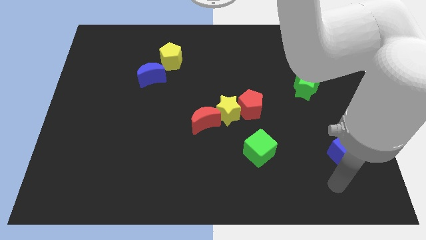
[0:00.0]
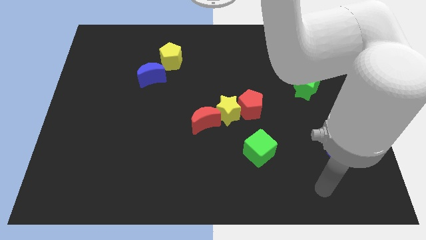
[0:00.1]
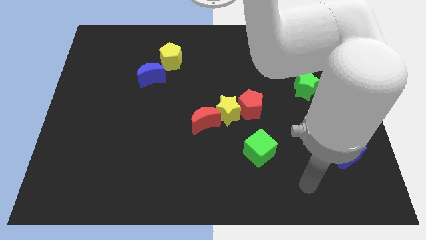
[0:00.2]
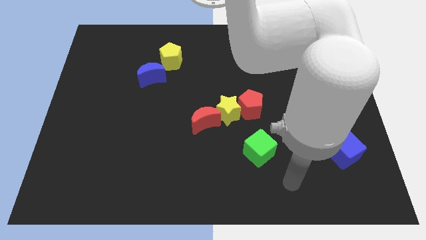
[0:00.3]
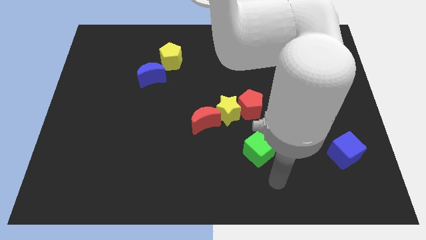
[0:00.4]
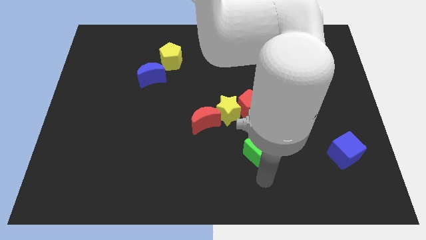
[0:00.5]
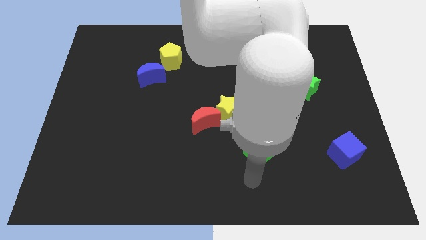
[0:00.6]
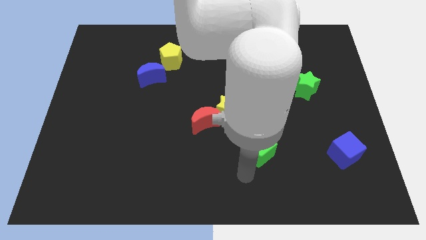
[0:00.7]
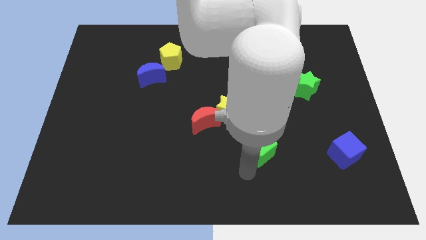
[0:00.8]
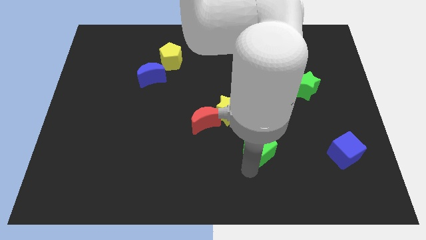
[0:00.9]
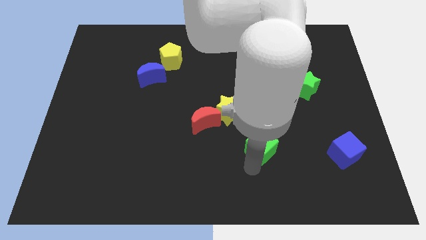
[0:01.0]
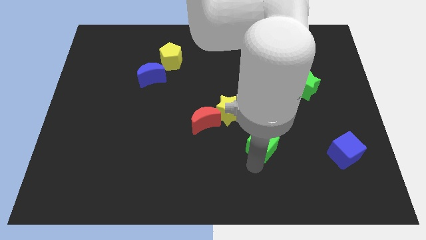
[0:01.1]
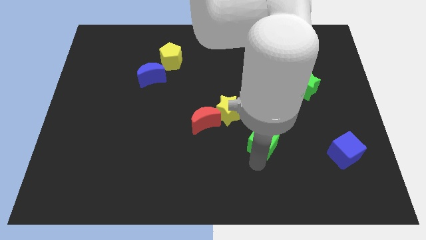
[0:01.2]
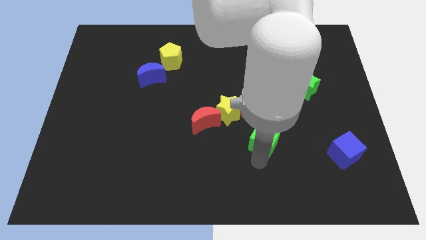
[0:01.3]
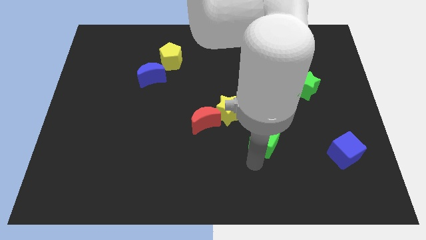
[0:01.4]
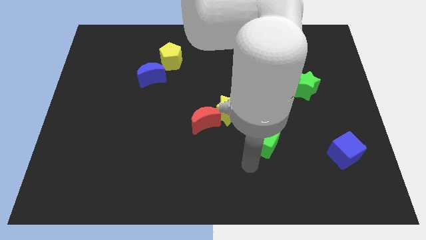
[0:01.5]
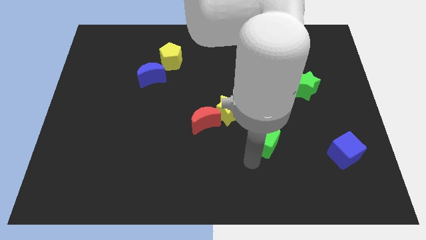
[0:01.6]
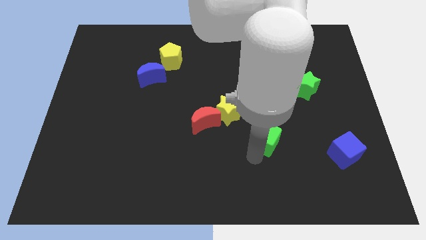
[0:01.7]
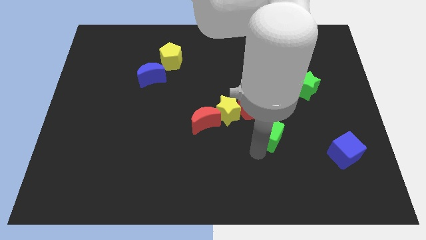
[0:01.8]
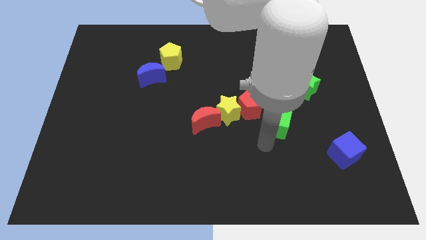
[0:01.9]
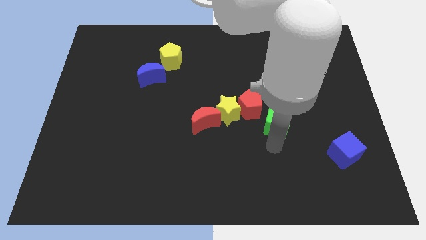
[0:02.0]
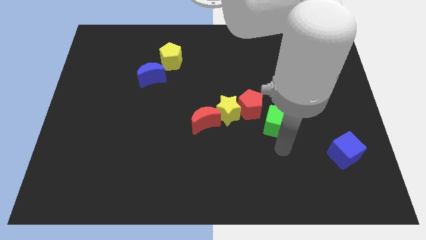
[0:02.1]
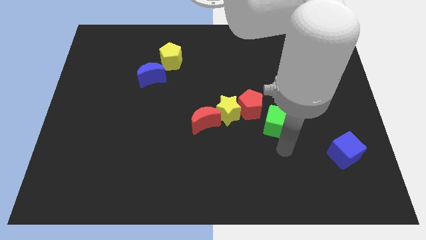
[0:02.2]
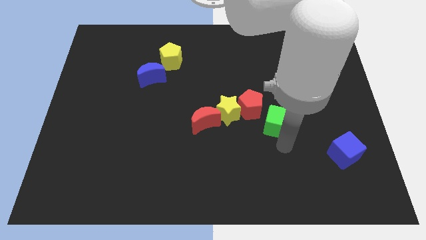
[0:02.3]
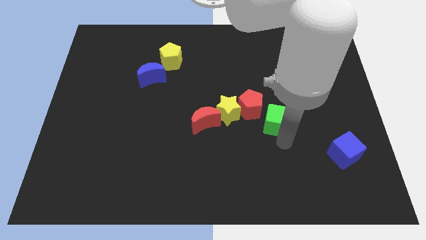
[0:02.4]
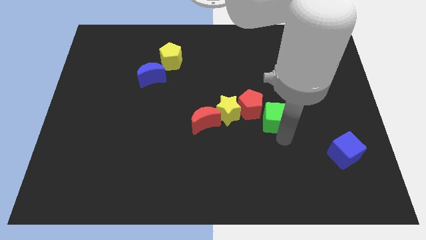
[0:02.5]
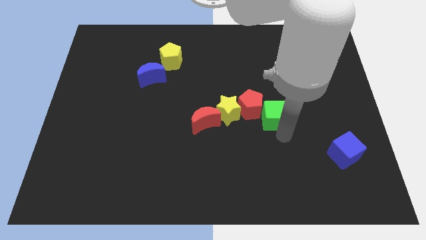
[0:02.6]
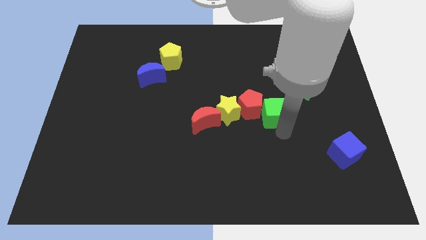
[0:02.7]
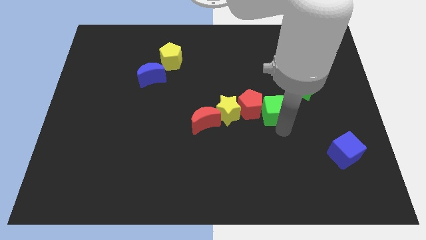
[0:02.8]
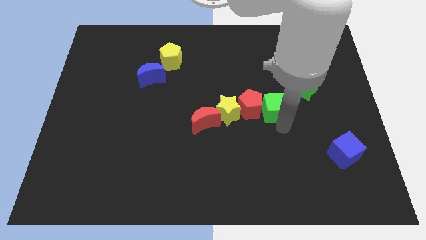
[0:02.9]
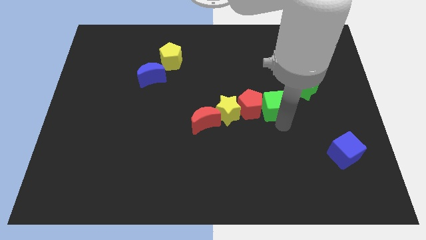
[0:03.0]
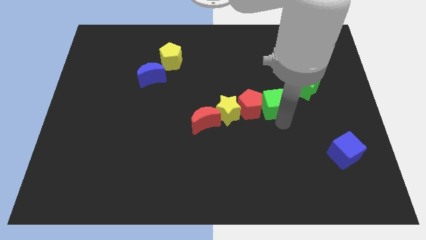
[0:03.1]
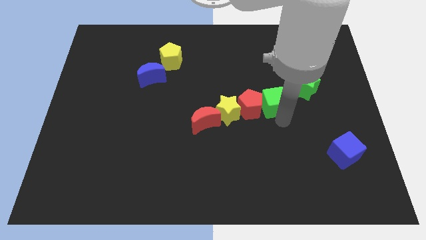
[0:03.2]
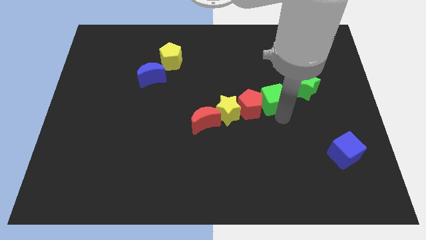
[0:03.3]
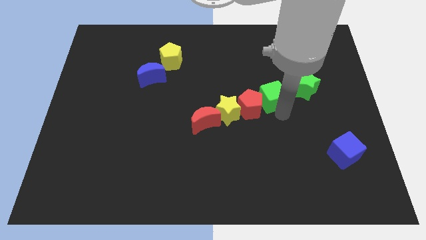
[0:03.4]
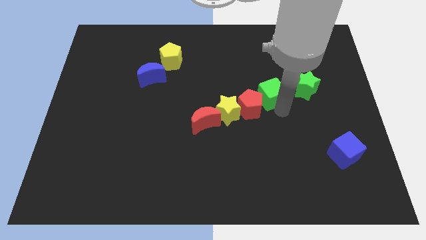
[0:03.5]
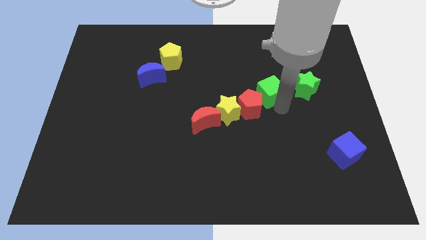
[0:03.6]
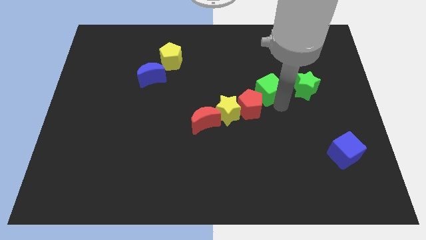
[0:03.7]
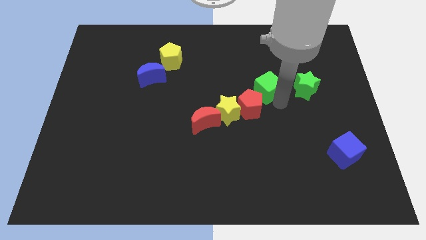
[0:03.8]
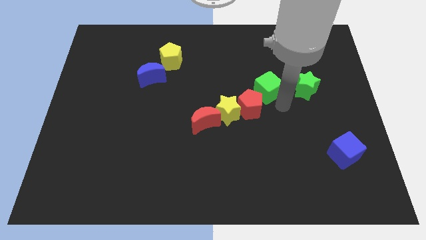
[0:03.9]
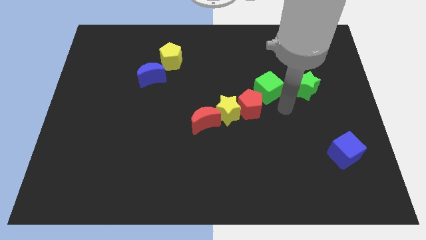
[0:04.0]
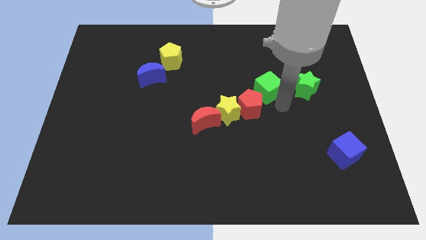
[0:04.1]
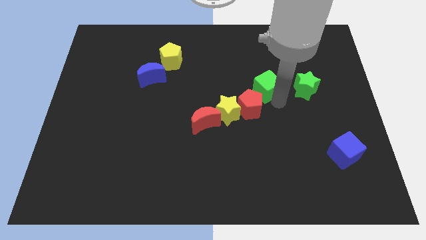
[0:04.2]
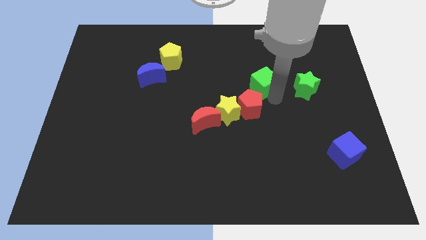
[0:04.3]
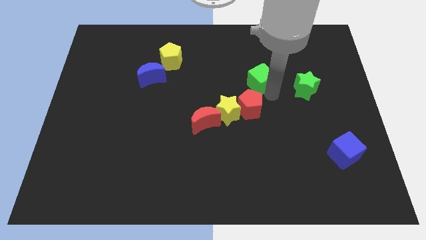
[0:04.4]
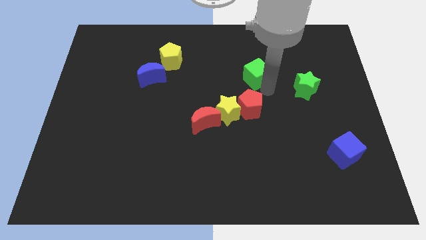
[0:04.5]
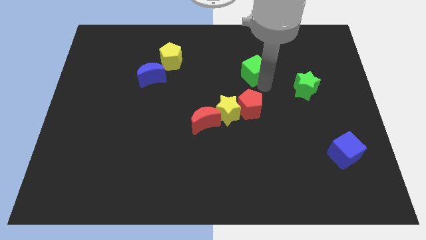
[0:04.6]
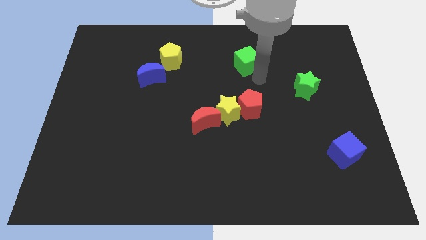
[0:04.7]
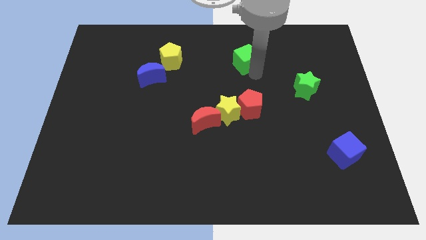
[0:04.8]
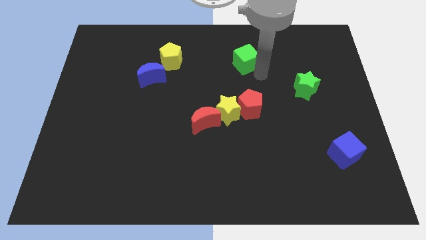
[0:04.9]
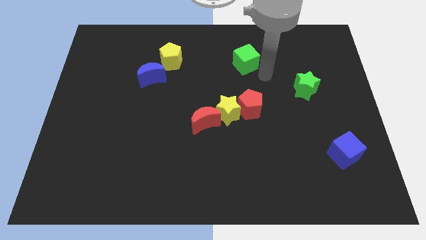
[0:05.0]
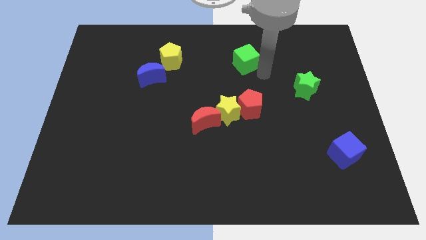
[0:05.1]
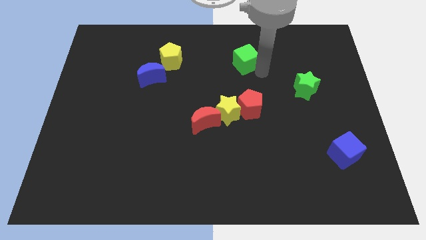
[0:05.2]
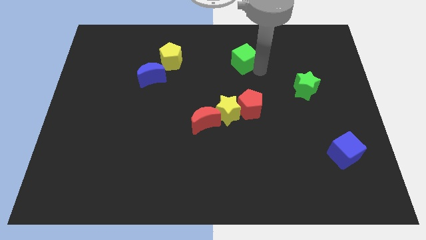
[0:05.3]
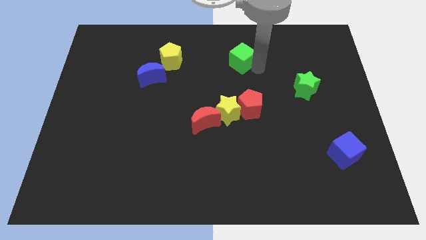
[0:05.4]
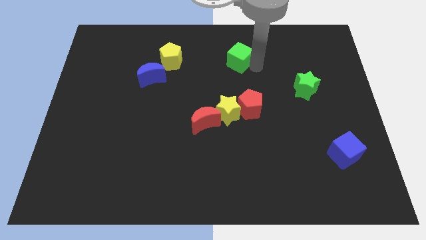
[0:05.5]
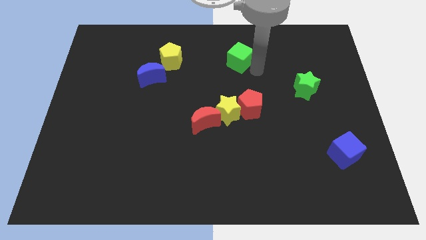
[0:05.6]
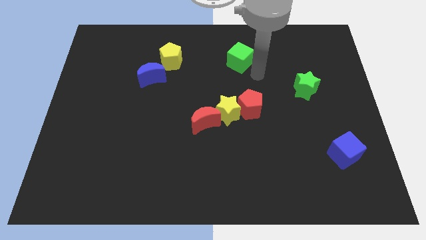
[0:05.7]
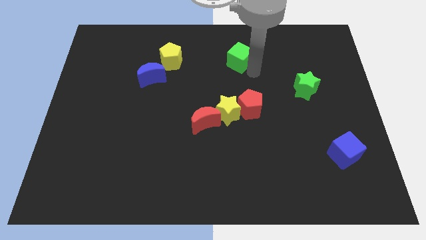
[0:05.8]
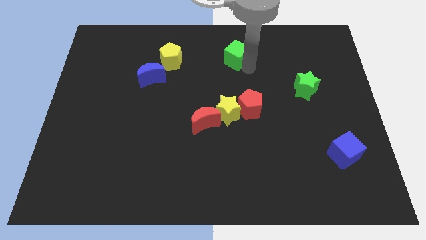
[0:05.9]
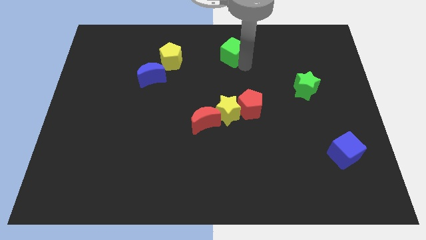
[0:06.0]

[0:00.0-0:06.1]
move the green cube to the towards your base
